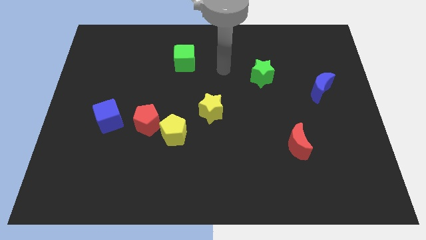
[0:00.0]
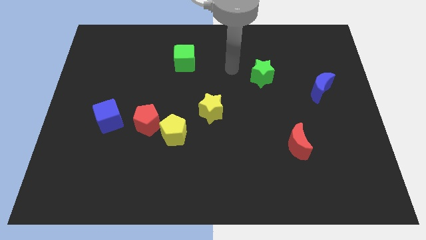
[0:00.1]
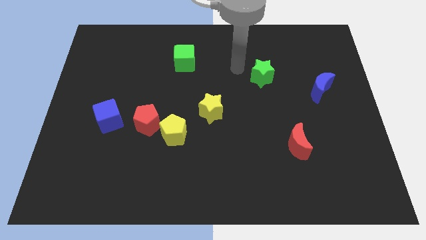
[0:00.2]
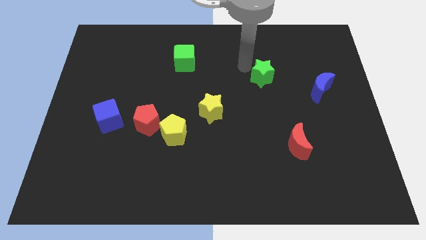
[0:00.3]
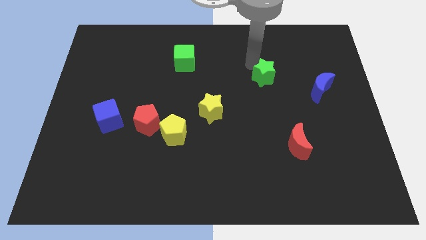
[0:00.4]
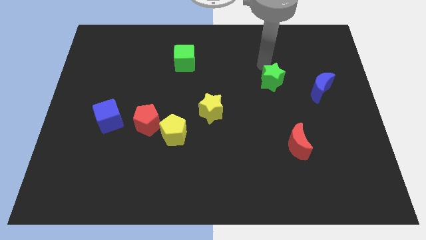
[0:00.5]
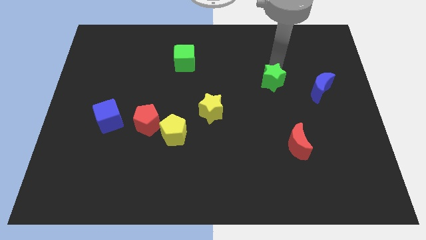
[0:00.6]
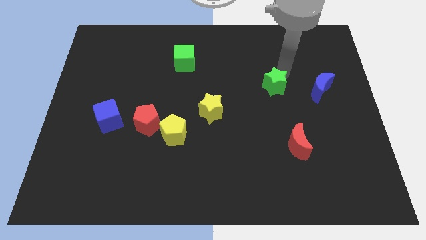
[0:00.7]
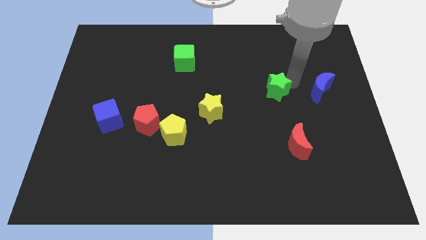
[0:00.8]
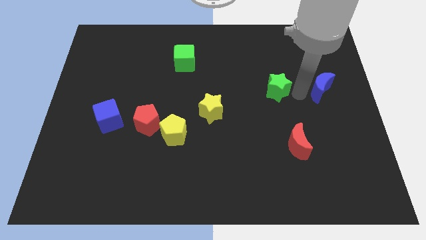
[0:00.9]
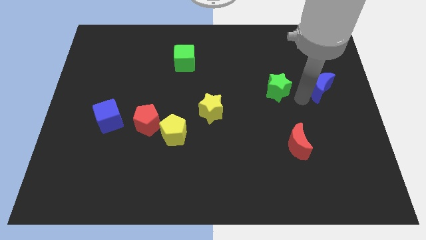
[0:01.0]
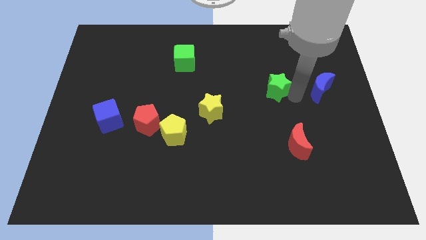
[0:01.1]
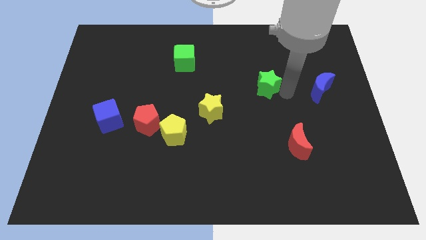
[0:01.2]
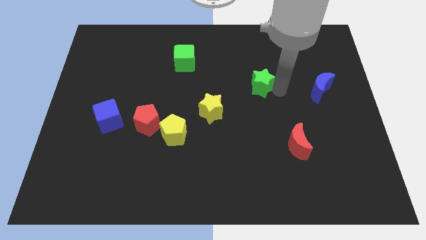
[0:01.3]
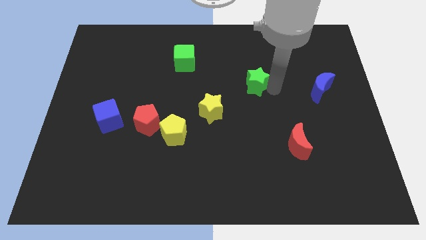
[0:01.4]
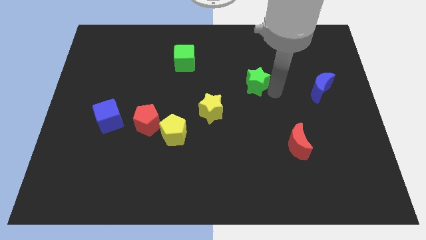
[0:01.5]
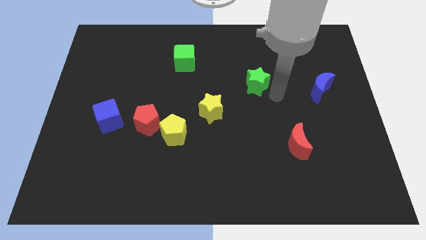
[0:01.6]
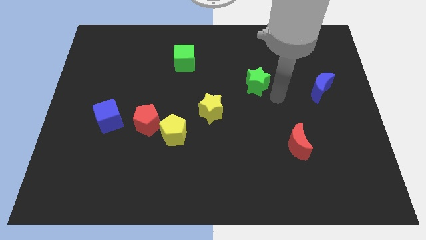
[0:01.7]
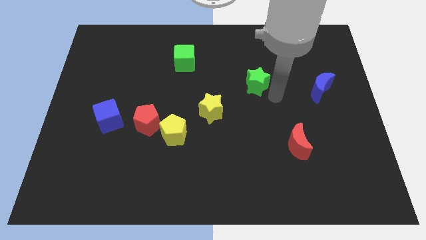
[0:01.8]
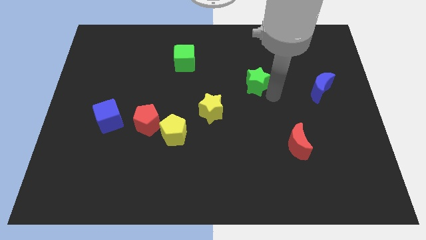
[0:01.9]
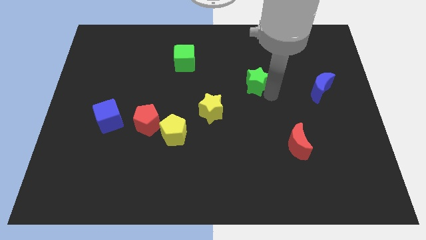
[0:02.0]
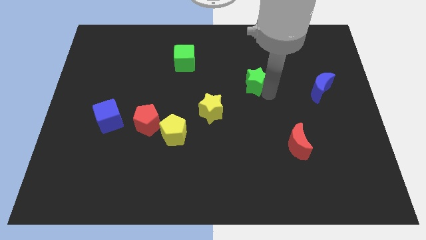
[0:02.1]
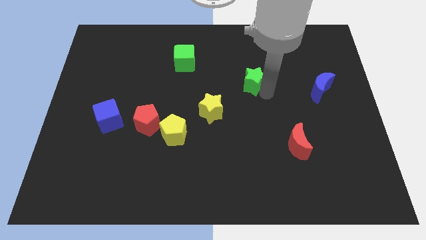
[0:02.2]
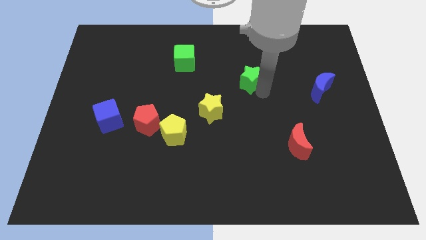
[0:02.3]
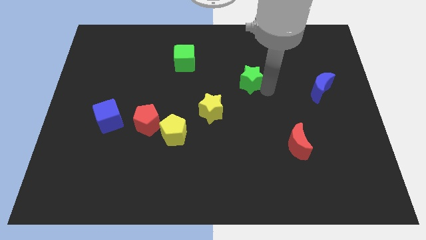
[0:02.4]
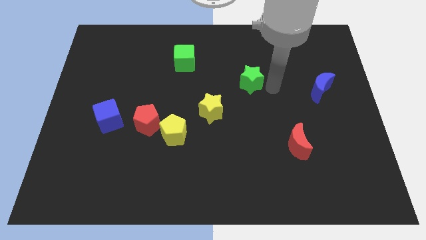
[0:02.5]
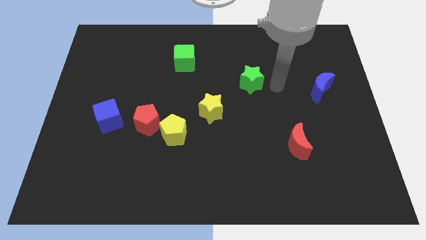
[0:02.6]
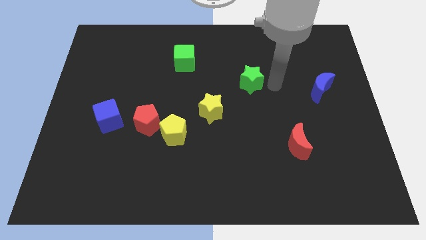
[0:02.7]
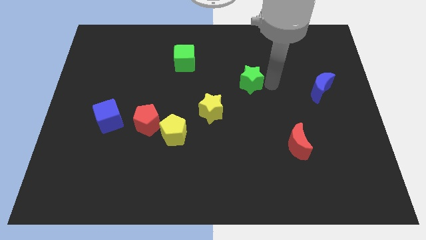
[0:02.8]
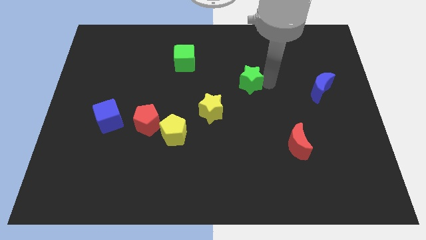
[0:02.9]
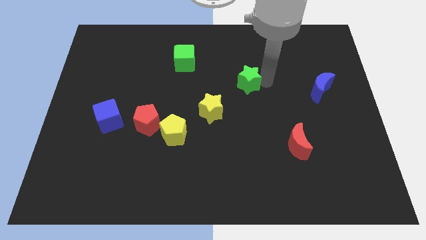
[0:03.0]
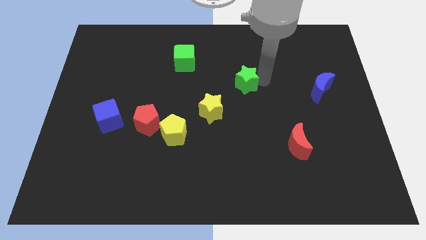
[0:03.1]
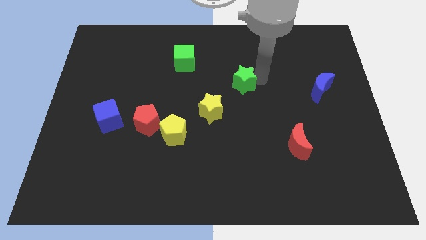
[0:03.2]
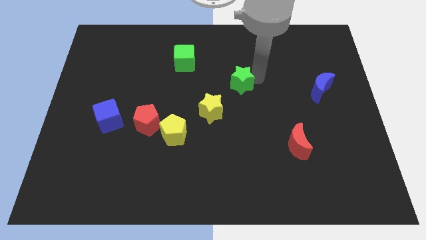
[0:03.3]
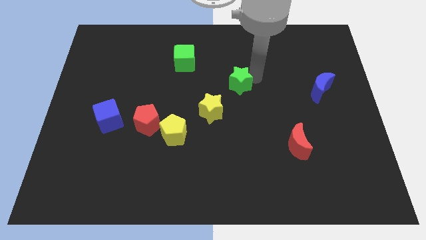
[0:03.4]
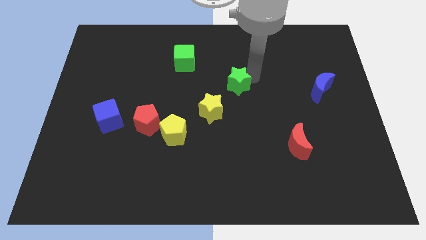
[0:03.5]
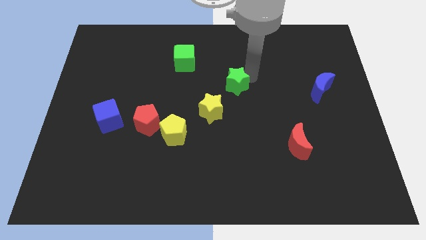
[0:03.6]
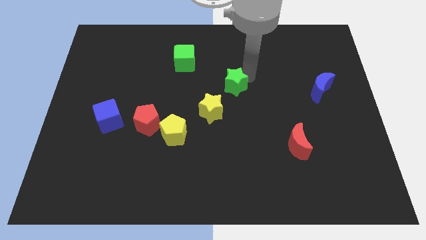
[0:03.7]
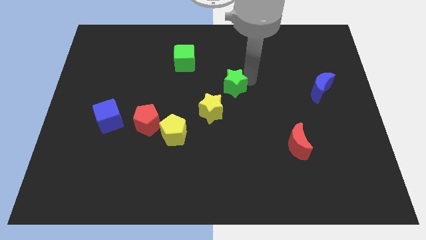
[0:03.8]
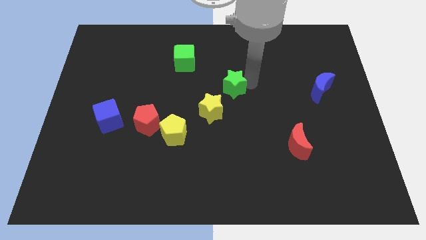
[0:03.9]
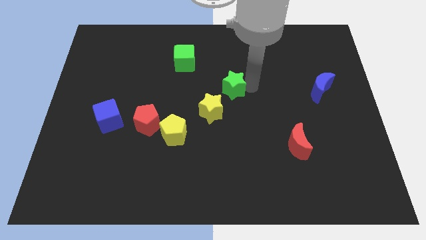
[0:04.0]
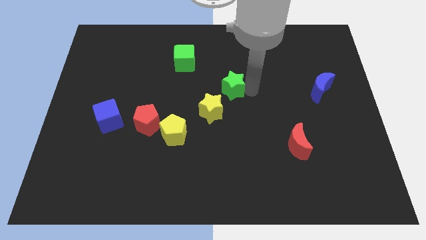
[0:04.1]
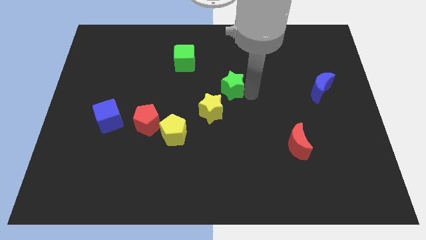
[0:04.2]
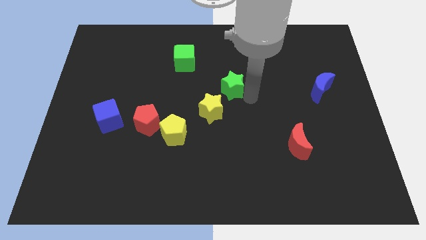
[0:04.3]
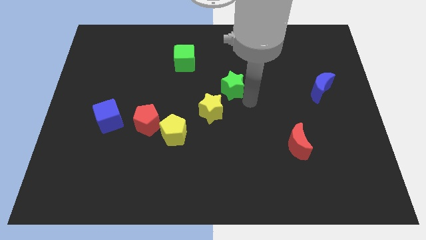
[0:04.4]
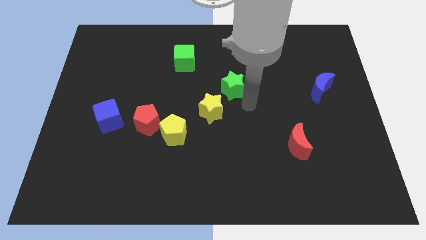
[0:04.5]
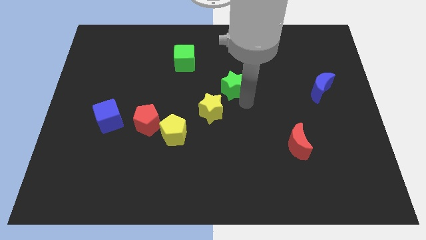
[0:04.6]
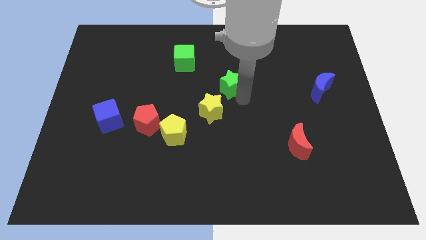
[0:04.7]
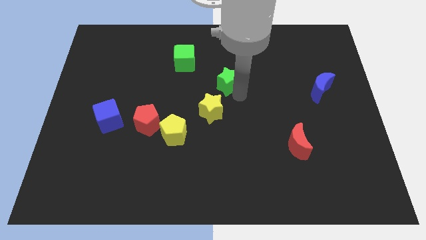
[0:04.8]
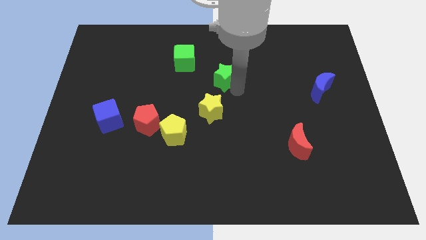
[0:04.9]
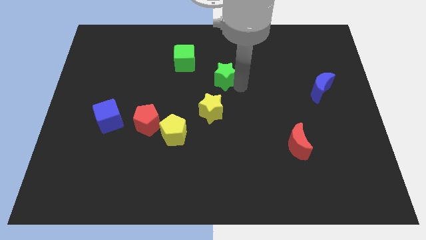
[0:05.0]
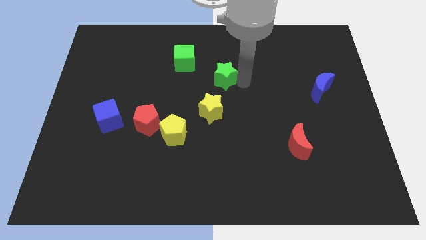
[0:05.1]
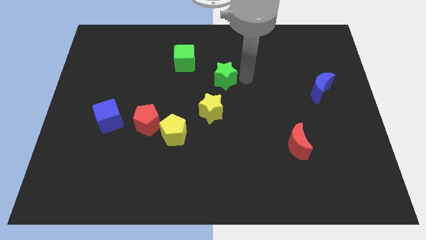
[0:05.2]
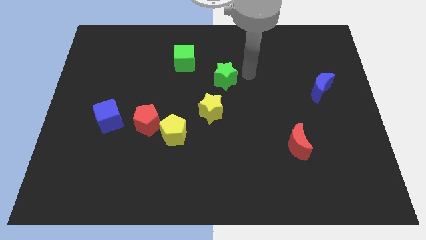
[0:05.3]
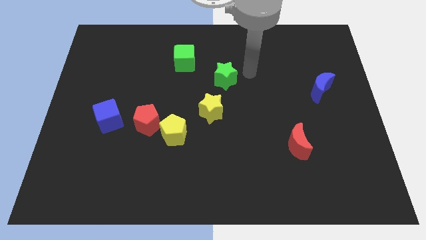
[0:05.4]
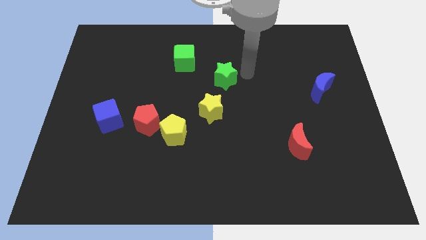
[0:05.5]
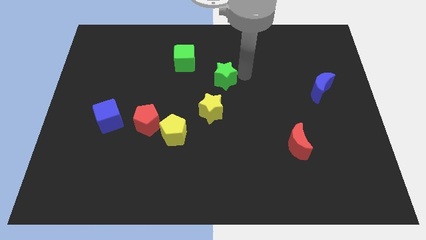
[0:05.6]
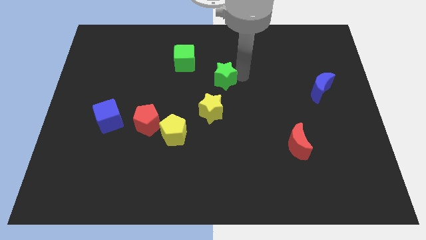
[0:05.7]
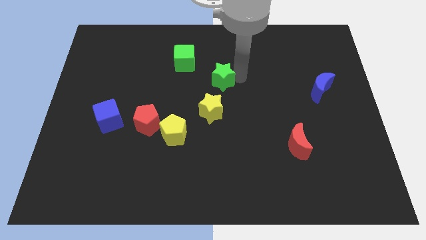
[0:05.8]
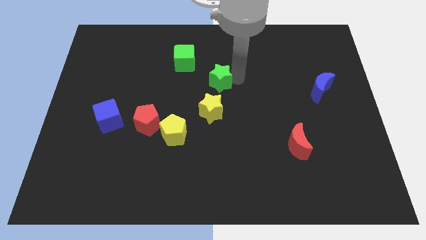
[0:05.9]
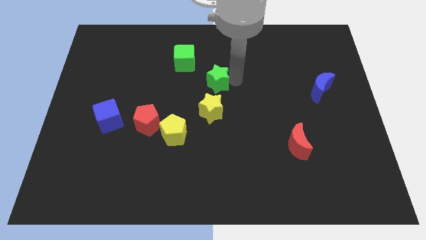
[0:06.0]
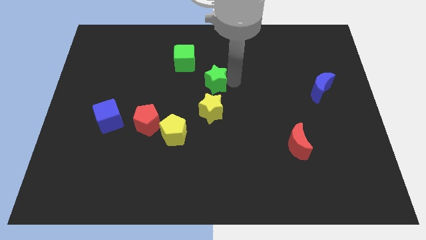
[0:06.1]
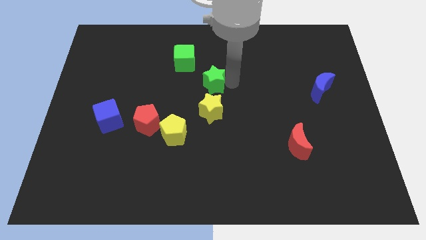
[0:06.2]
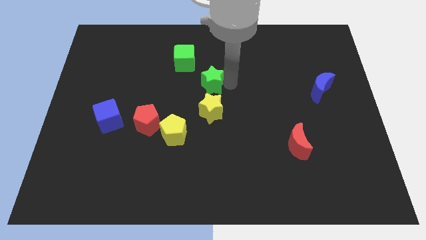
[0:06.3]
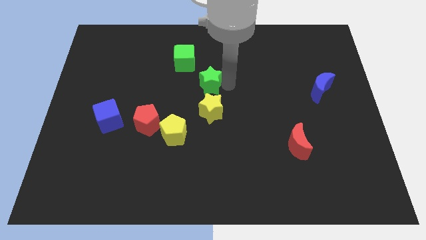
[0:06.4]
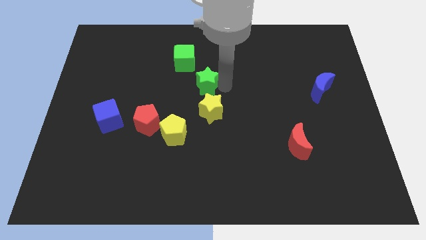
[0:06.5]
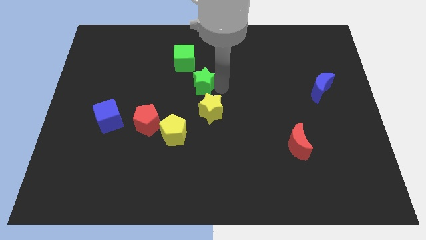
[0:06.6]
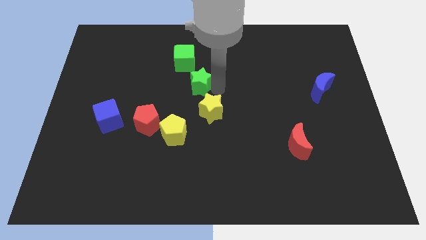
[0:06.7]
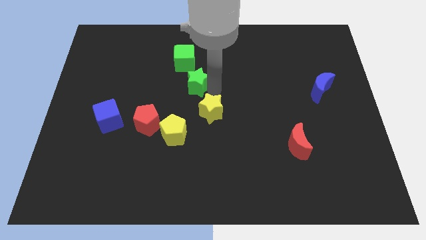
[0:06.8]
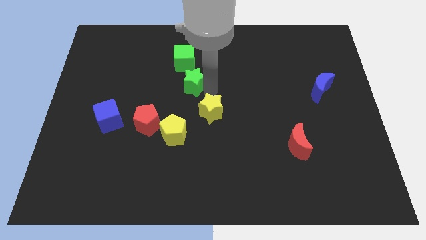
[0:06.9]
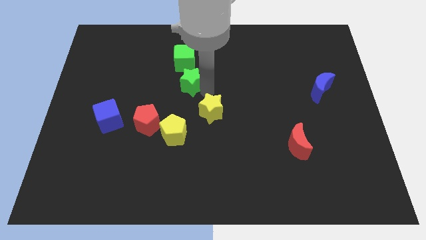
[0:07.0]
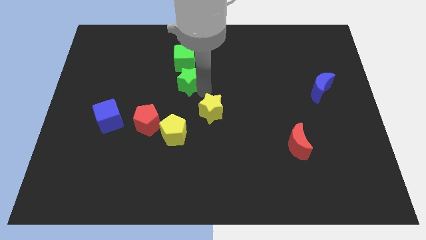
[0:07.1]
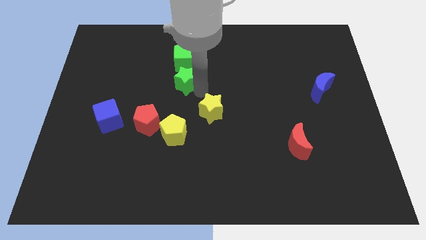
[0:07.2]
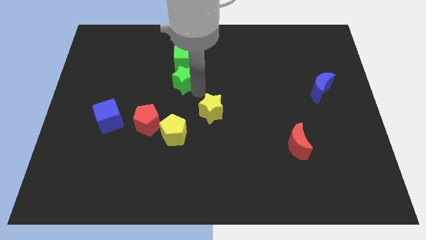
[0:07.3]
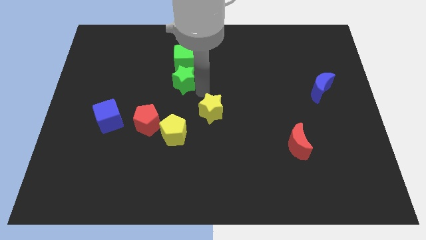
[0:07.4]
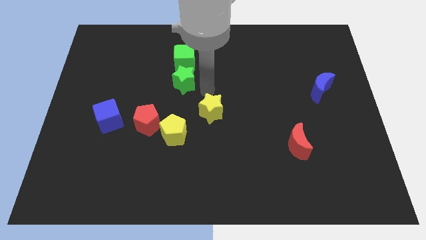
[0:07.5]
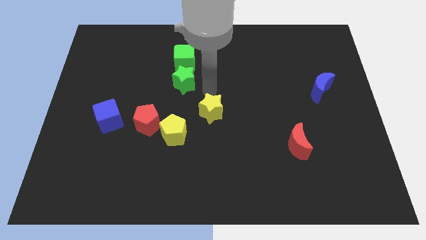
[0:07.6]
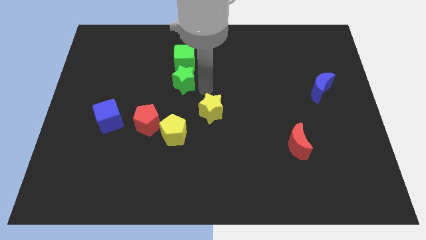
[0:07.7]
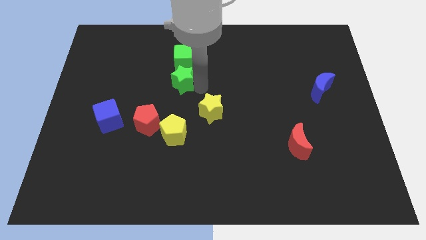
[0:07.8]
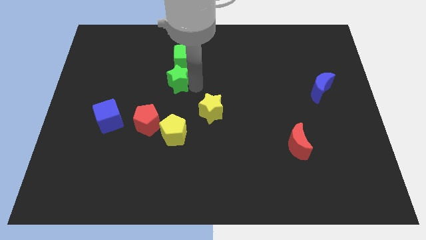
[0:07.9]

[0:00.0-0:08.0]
push the green star left
